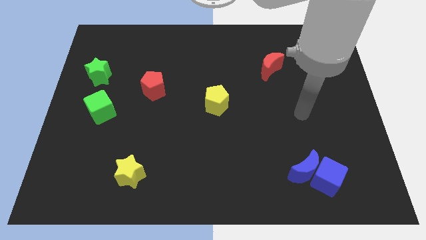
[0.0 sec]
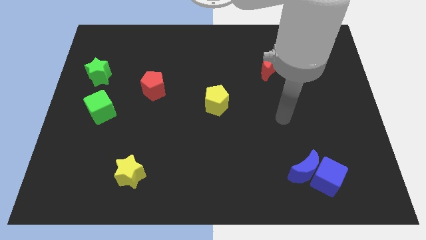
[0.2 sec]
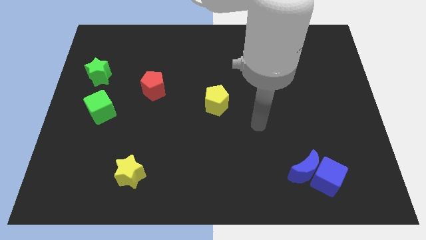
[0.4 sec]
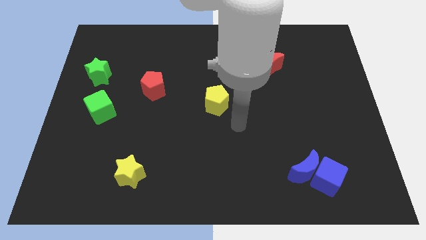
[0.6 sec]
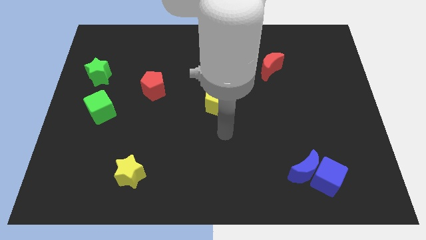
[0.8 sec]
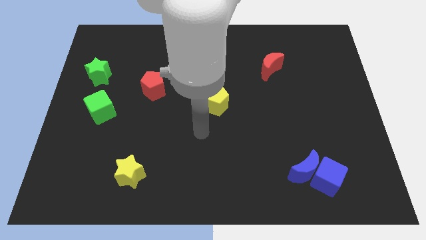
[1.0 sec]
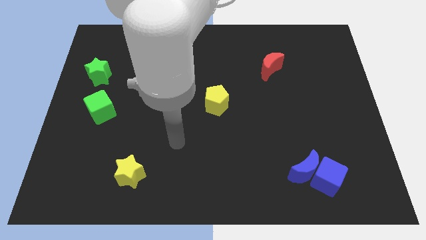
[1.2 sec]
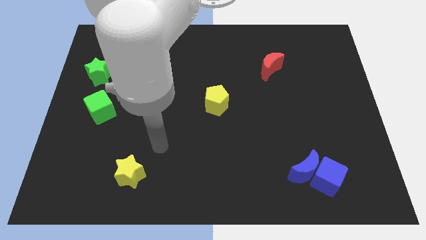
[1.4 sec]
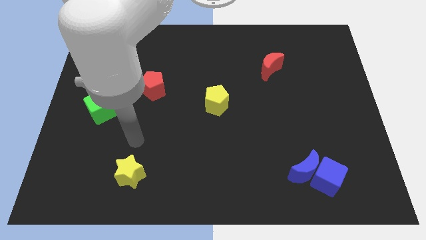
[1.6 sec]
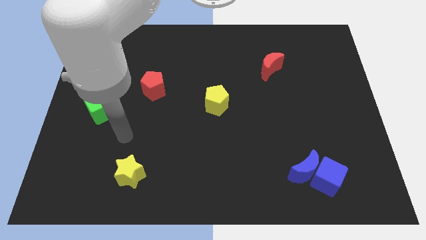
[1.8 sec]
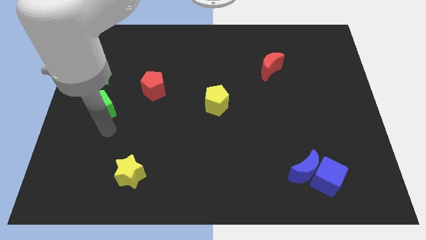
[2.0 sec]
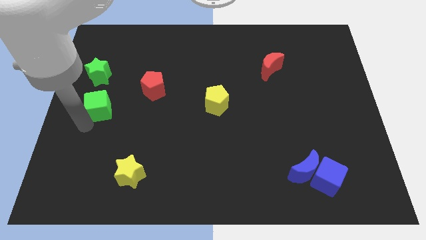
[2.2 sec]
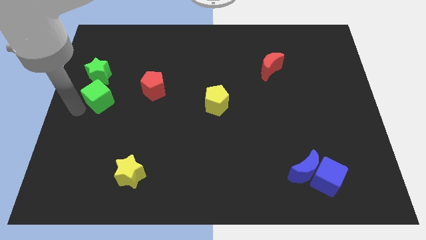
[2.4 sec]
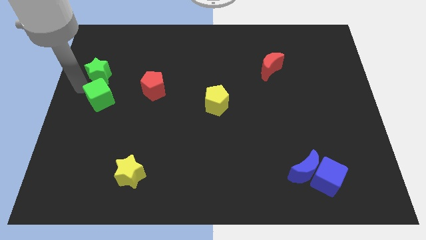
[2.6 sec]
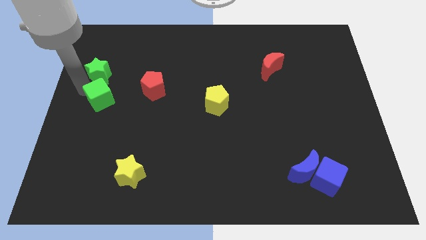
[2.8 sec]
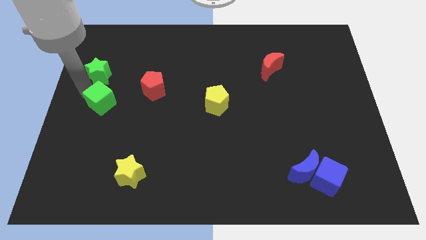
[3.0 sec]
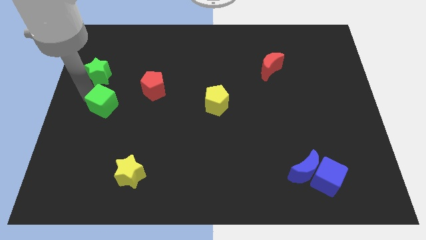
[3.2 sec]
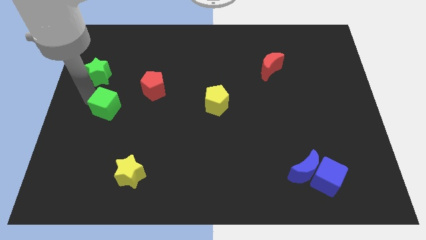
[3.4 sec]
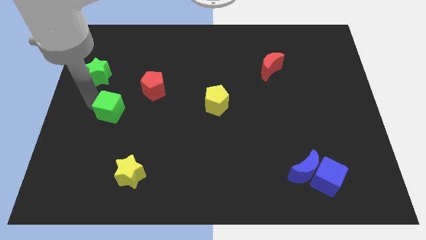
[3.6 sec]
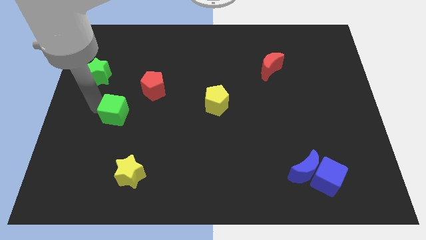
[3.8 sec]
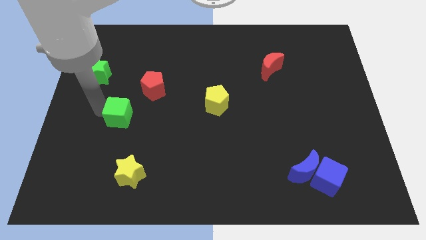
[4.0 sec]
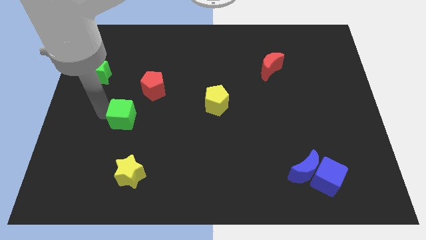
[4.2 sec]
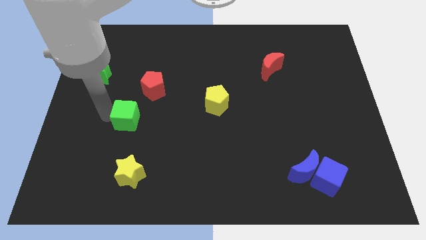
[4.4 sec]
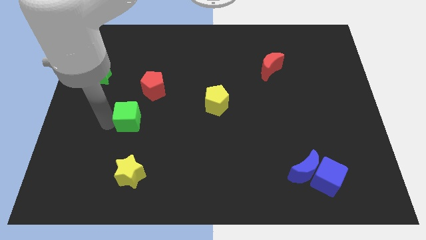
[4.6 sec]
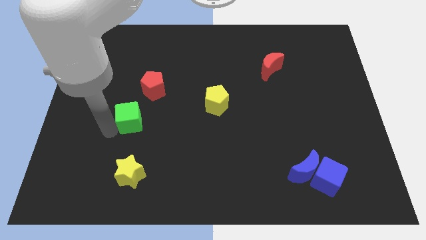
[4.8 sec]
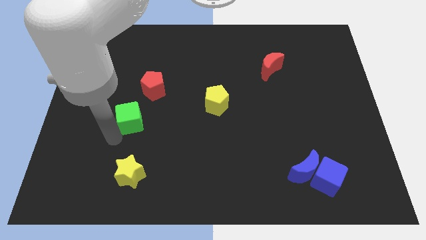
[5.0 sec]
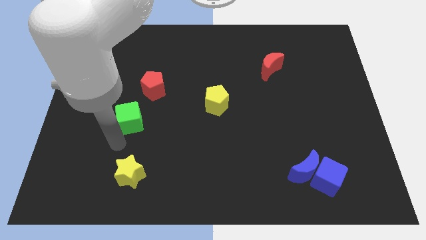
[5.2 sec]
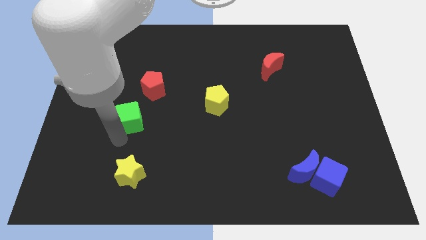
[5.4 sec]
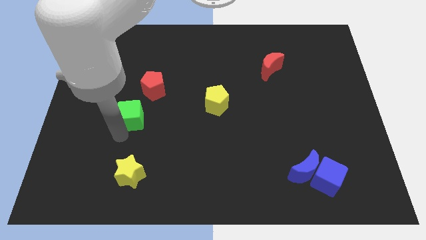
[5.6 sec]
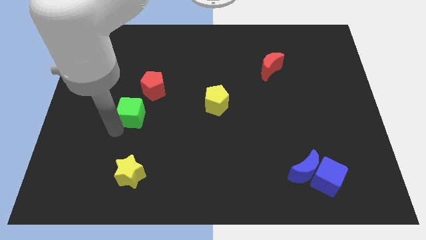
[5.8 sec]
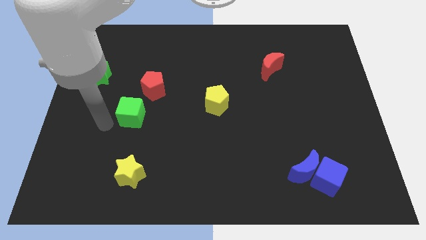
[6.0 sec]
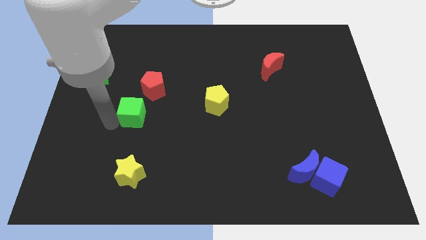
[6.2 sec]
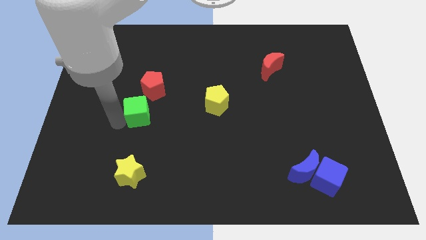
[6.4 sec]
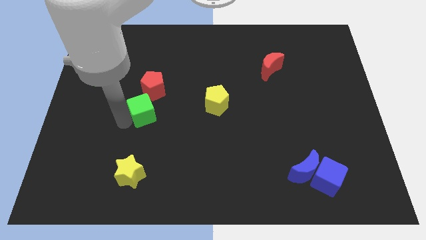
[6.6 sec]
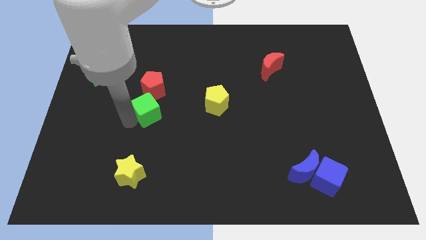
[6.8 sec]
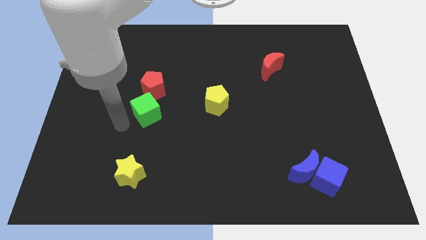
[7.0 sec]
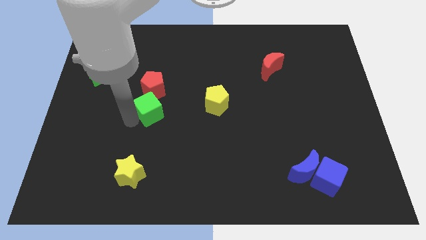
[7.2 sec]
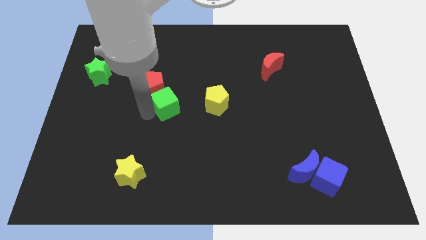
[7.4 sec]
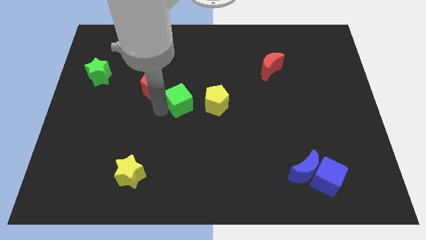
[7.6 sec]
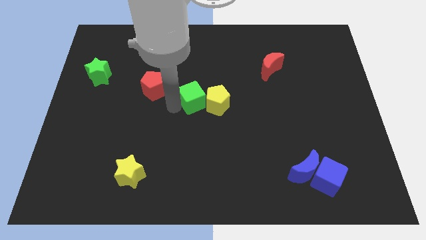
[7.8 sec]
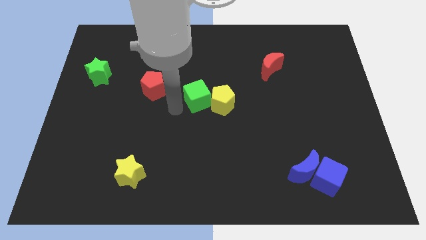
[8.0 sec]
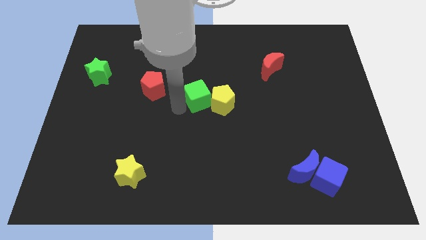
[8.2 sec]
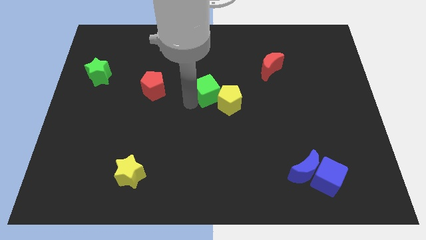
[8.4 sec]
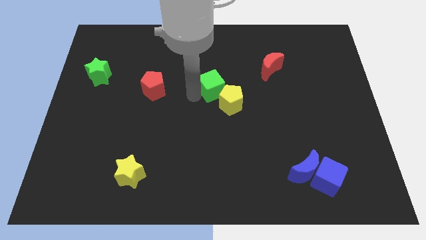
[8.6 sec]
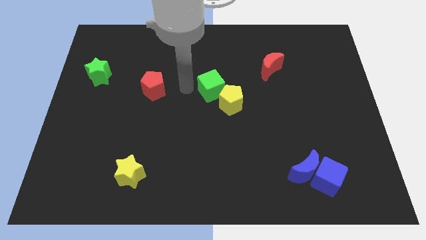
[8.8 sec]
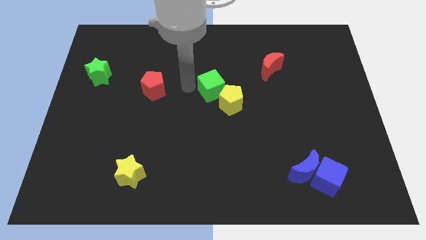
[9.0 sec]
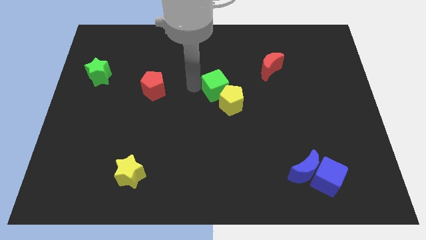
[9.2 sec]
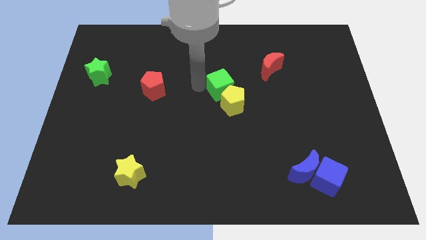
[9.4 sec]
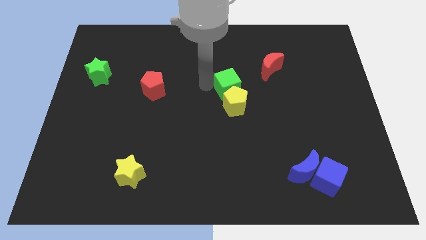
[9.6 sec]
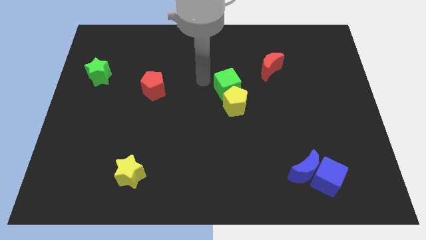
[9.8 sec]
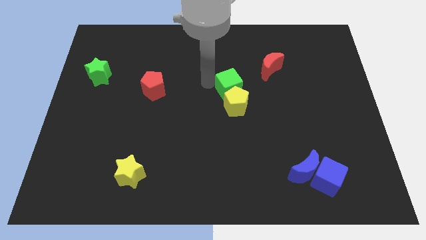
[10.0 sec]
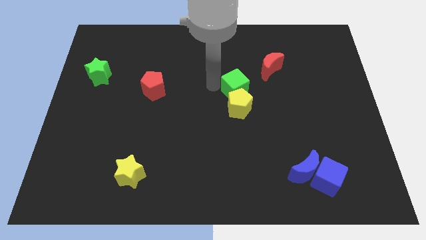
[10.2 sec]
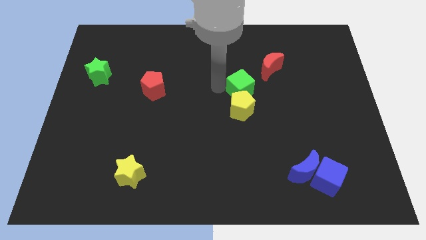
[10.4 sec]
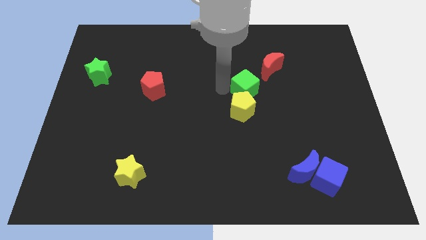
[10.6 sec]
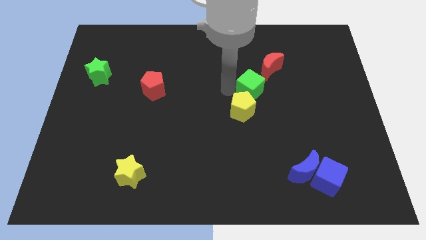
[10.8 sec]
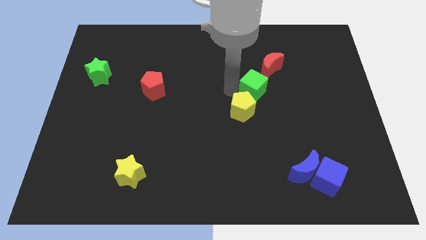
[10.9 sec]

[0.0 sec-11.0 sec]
move the green cube to the bottom side of the red moon

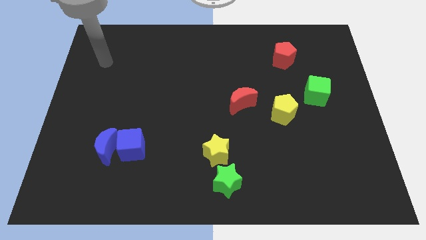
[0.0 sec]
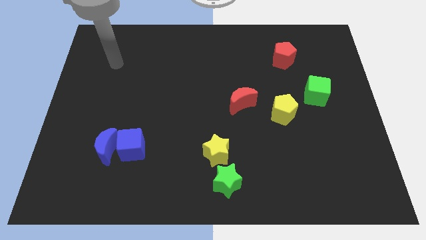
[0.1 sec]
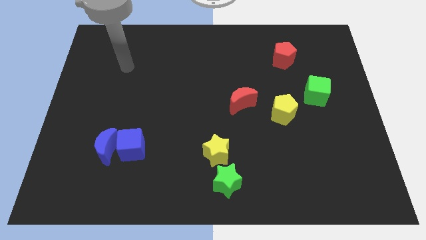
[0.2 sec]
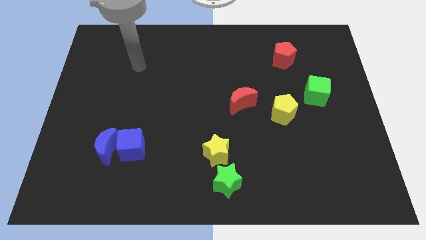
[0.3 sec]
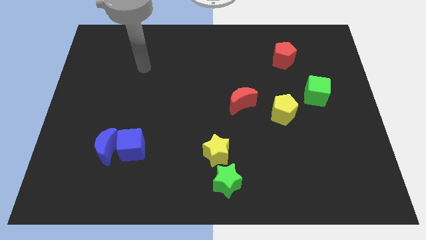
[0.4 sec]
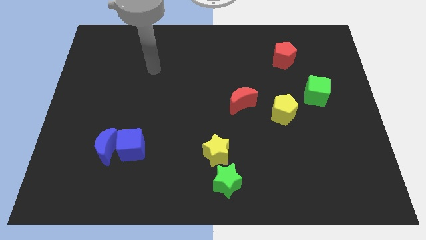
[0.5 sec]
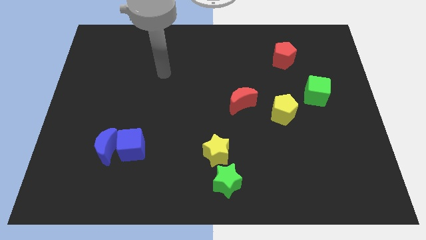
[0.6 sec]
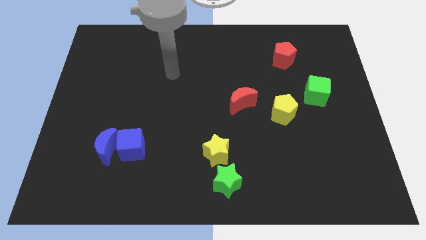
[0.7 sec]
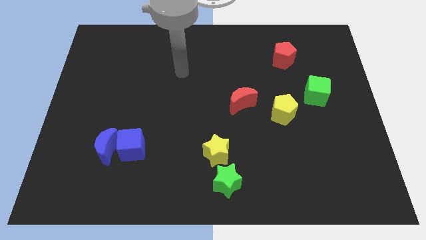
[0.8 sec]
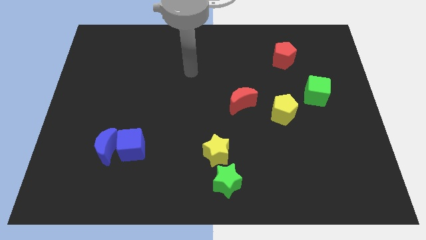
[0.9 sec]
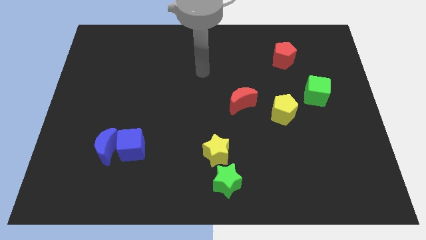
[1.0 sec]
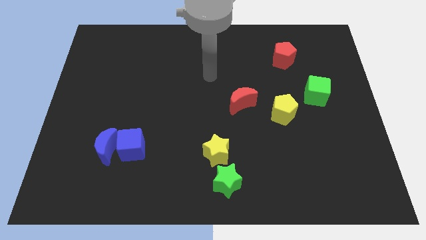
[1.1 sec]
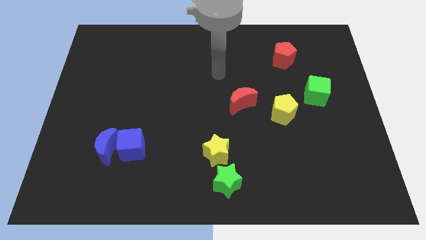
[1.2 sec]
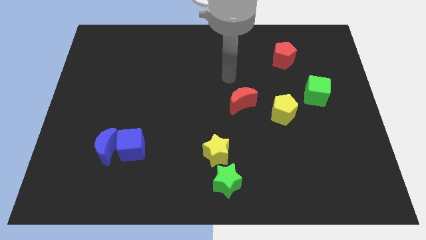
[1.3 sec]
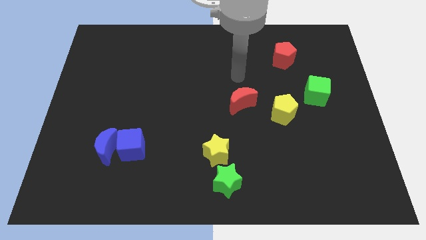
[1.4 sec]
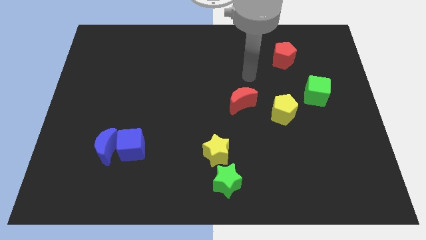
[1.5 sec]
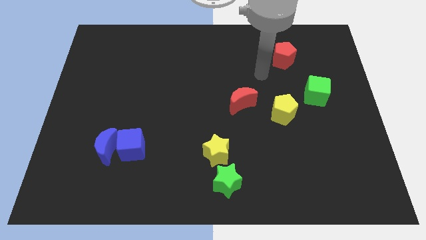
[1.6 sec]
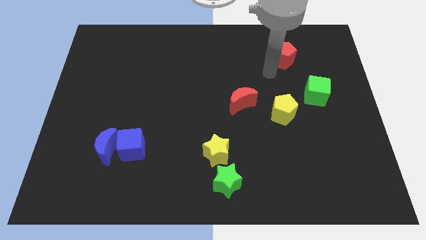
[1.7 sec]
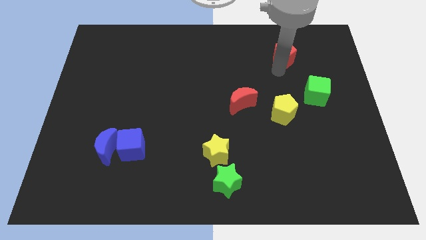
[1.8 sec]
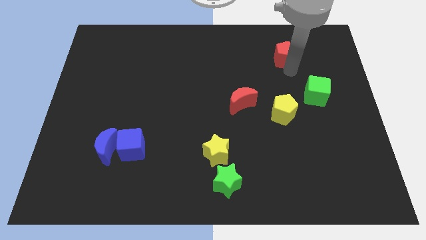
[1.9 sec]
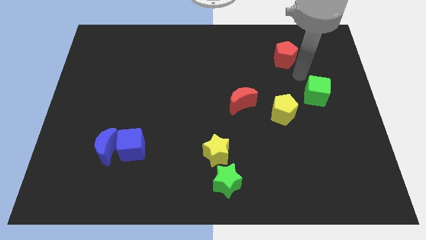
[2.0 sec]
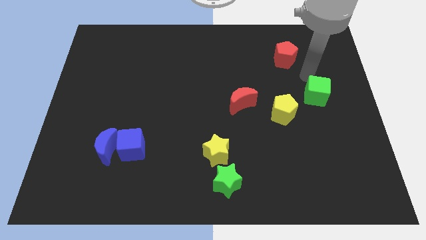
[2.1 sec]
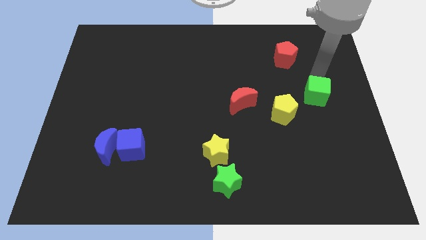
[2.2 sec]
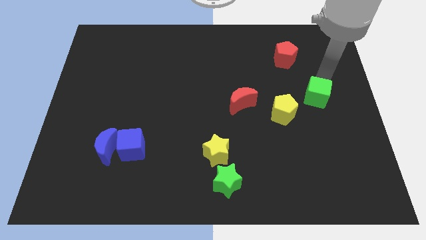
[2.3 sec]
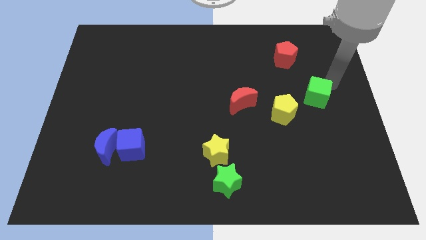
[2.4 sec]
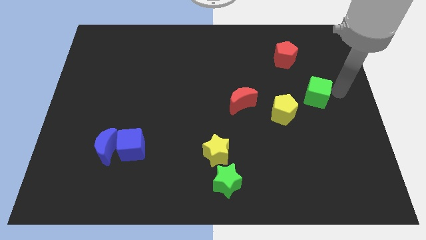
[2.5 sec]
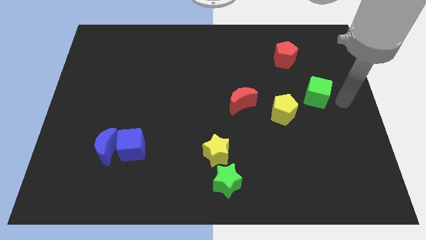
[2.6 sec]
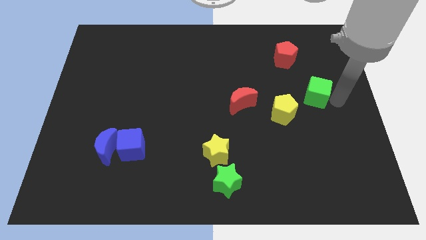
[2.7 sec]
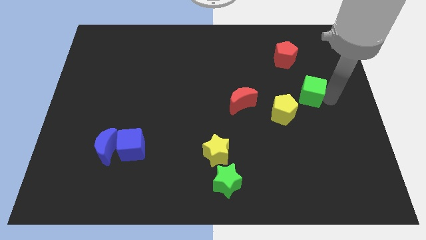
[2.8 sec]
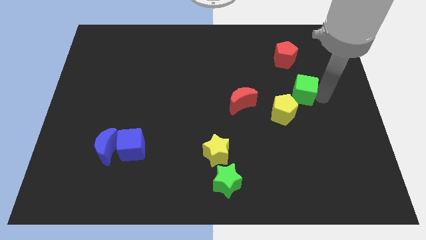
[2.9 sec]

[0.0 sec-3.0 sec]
push the green cube to the bottom of the red pentagon
